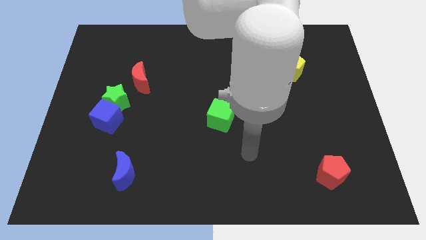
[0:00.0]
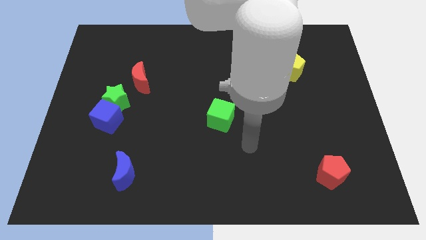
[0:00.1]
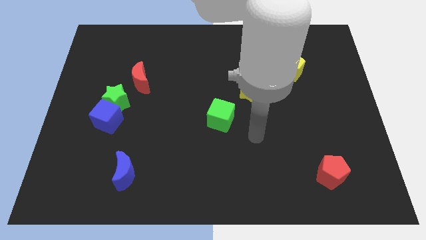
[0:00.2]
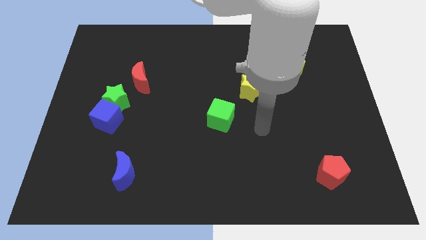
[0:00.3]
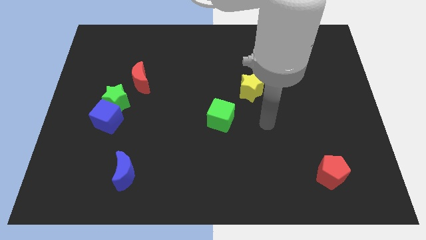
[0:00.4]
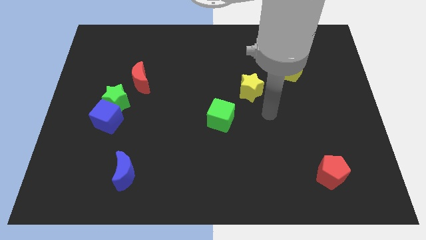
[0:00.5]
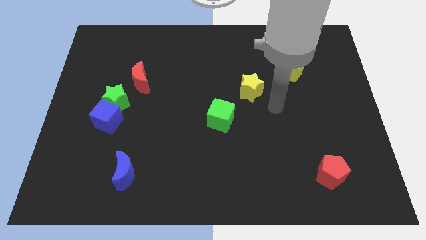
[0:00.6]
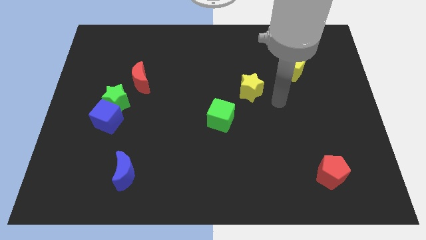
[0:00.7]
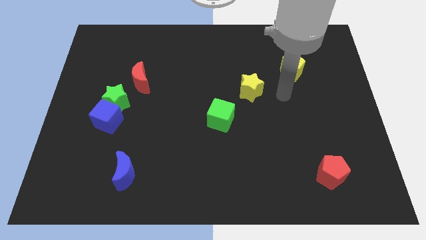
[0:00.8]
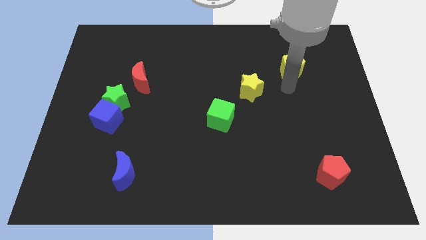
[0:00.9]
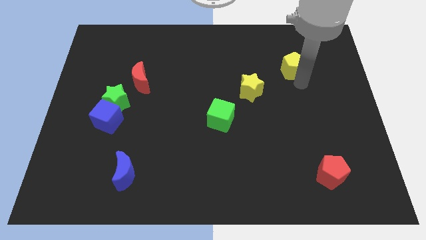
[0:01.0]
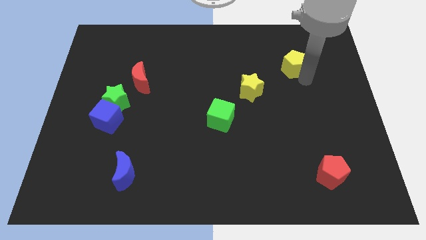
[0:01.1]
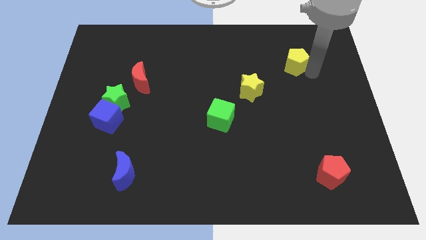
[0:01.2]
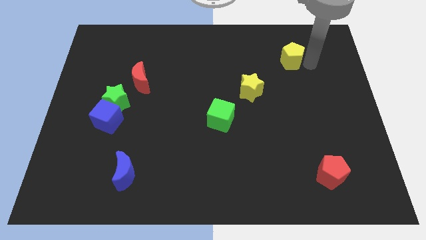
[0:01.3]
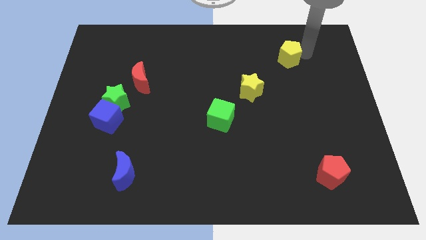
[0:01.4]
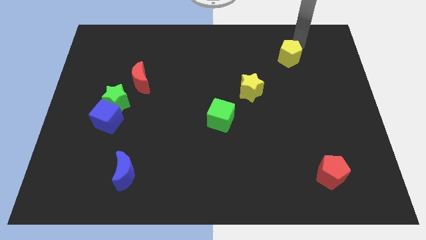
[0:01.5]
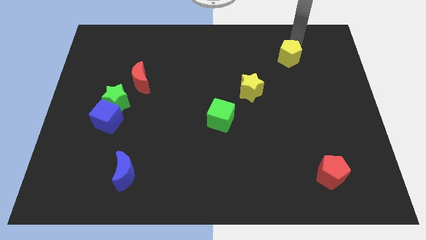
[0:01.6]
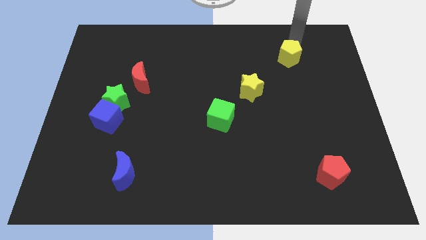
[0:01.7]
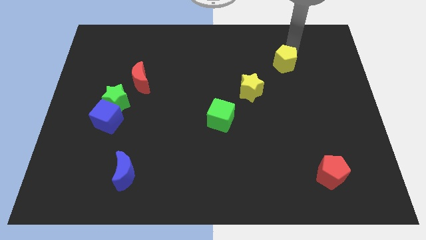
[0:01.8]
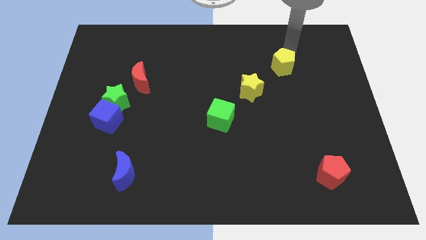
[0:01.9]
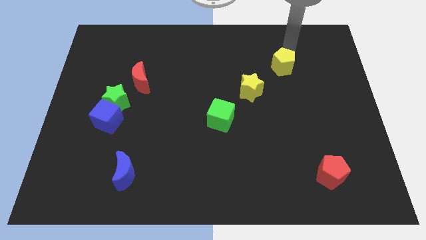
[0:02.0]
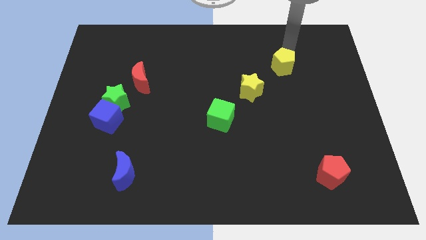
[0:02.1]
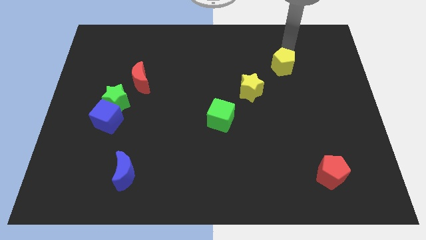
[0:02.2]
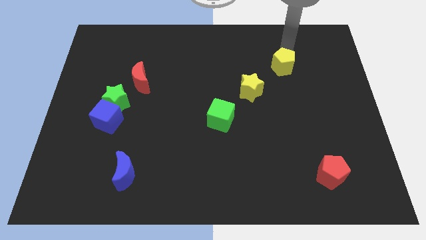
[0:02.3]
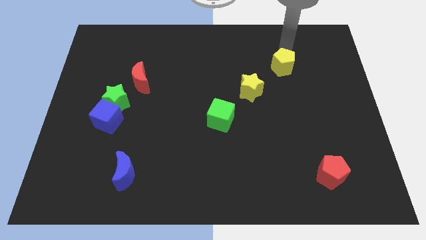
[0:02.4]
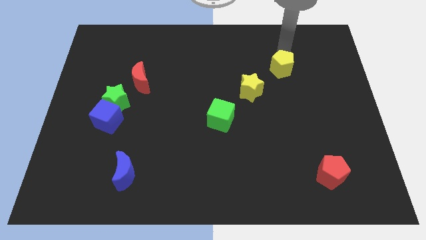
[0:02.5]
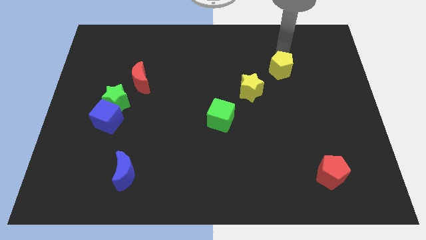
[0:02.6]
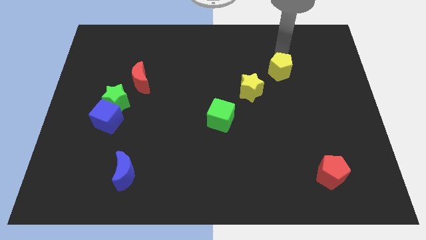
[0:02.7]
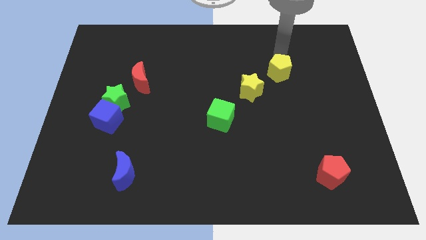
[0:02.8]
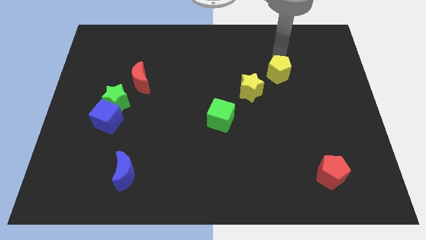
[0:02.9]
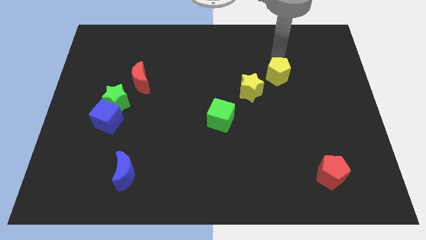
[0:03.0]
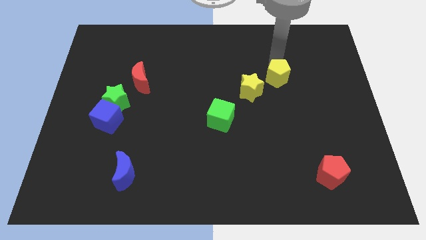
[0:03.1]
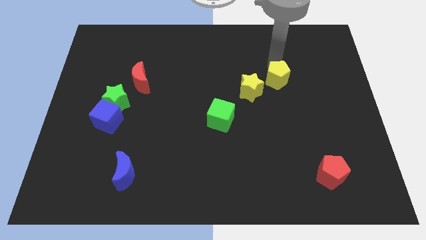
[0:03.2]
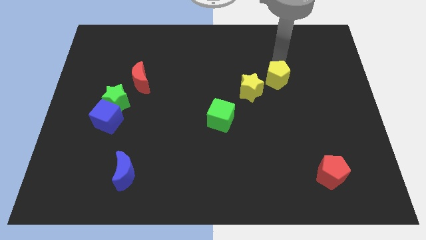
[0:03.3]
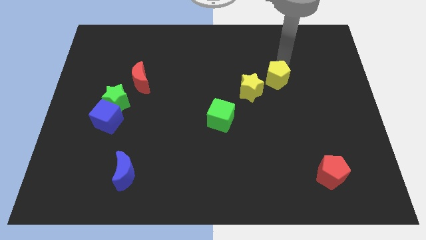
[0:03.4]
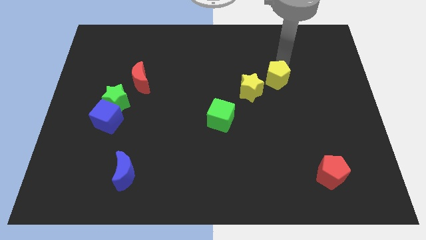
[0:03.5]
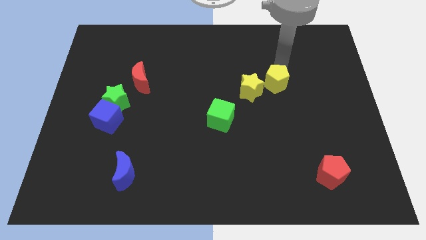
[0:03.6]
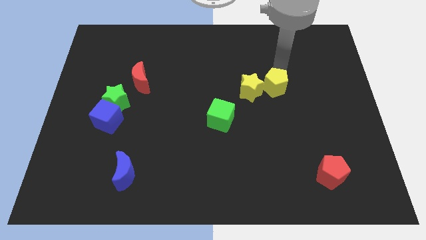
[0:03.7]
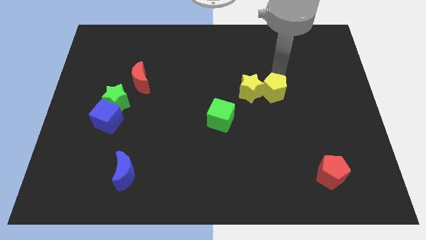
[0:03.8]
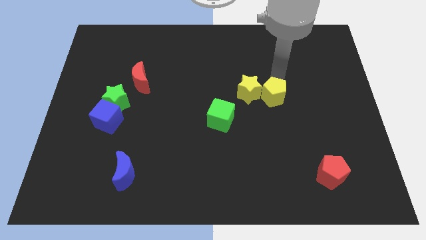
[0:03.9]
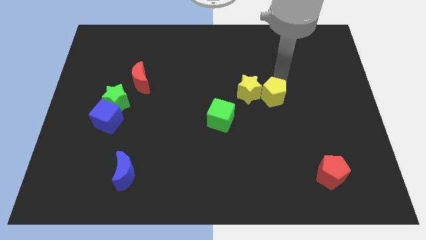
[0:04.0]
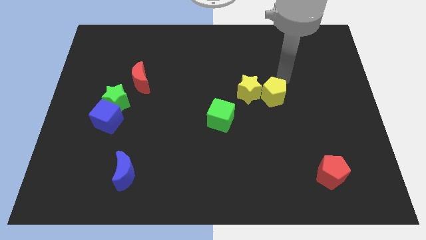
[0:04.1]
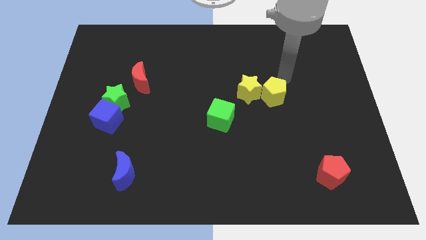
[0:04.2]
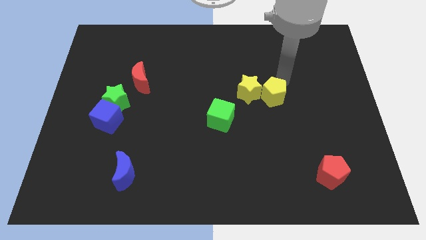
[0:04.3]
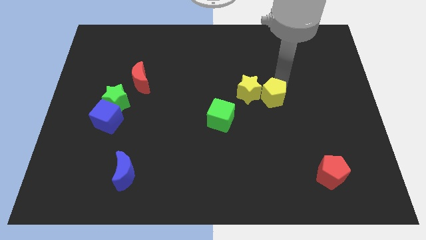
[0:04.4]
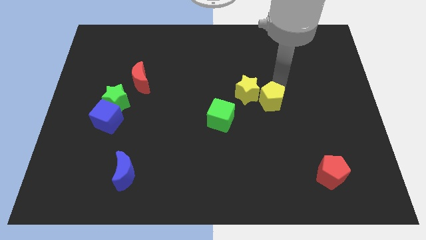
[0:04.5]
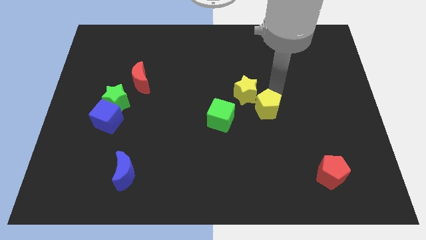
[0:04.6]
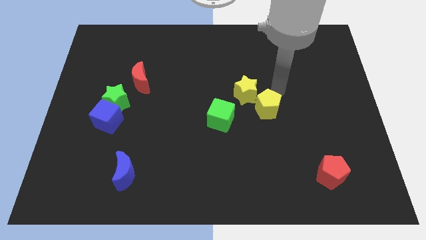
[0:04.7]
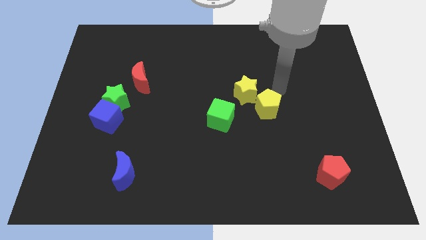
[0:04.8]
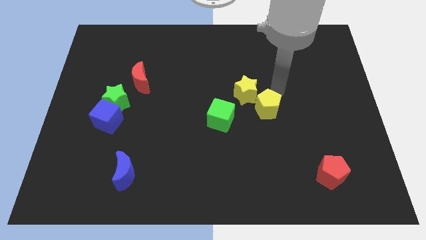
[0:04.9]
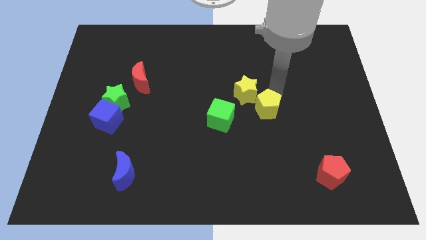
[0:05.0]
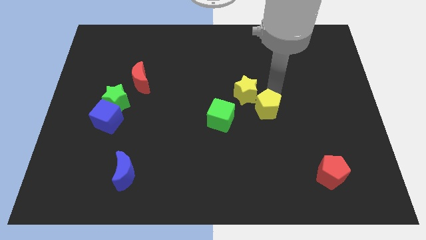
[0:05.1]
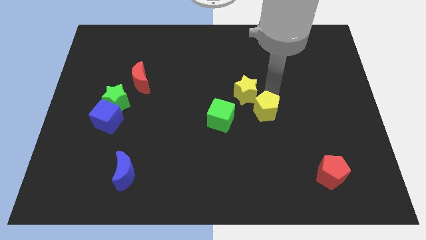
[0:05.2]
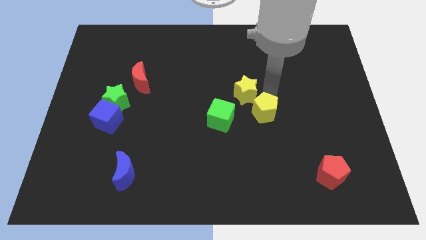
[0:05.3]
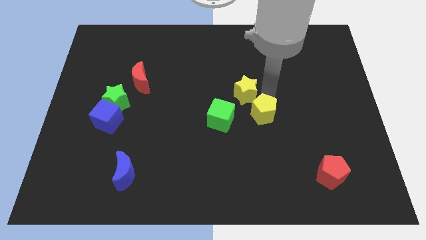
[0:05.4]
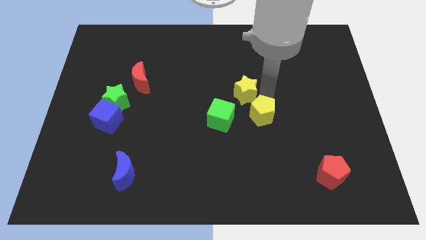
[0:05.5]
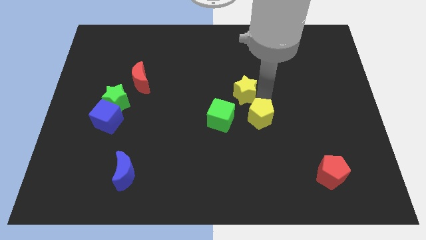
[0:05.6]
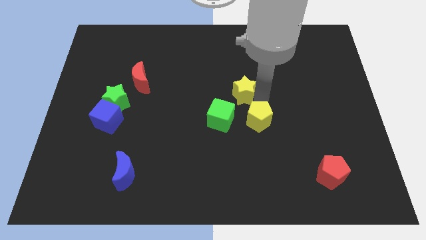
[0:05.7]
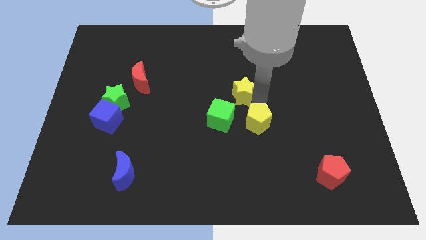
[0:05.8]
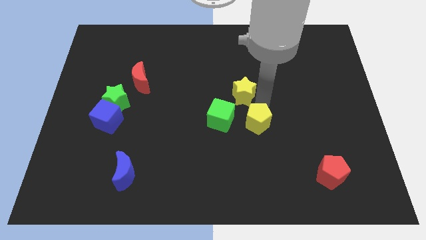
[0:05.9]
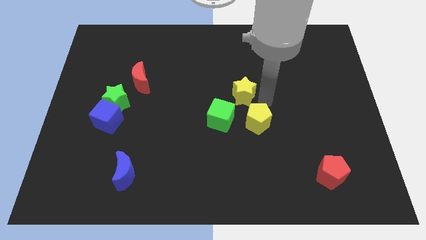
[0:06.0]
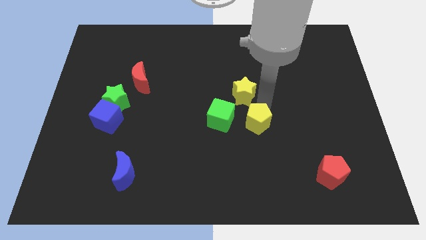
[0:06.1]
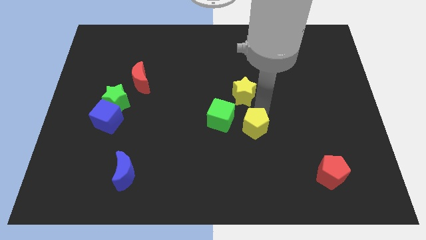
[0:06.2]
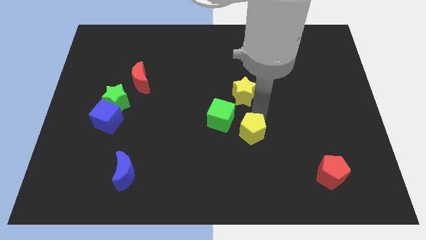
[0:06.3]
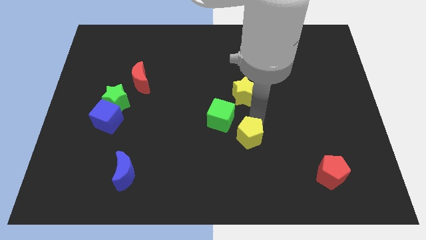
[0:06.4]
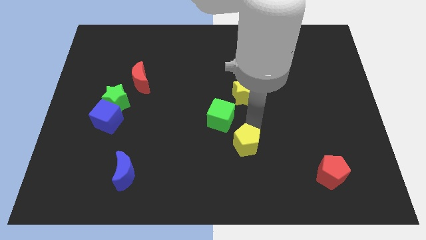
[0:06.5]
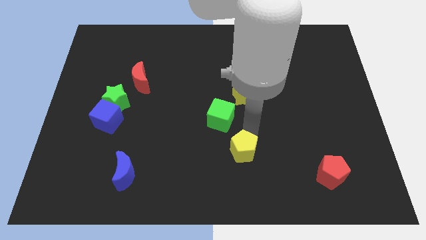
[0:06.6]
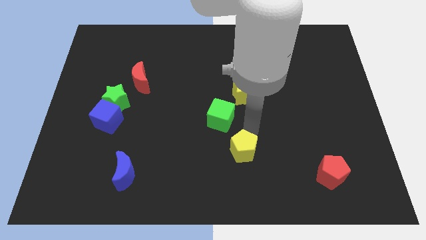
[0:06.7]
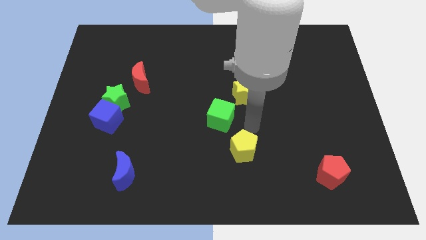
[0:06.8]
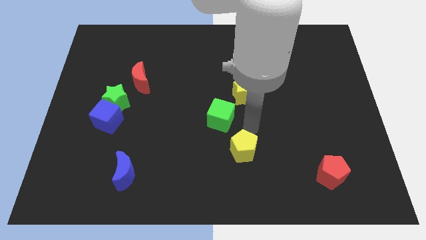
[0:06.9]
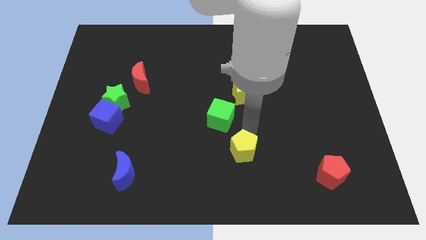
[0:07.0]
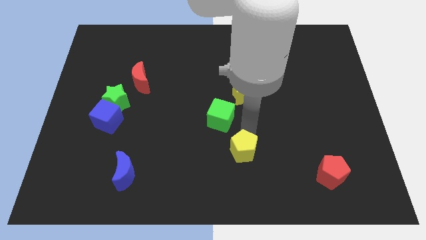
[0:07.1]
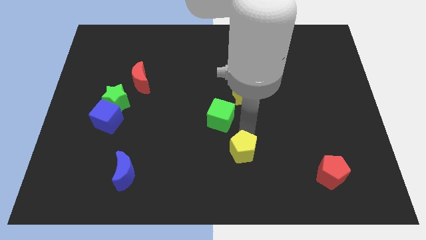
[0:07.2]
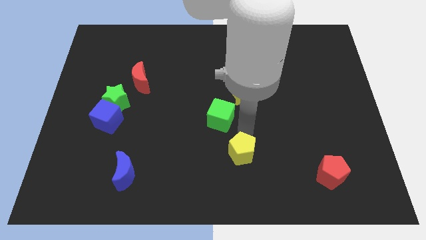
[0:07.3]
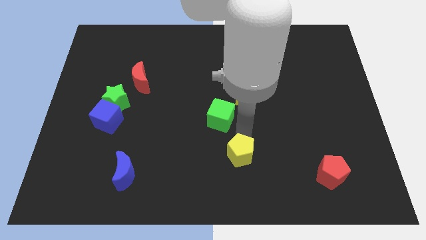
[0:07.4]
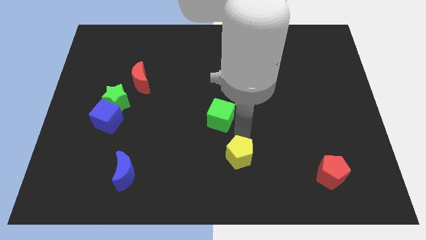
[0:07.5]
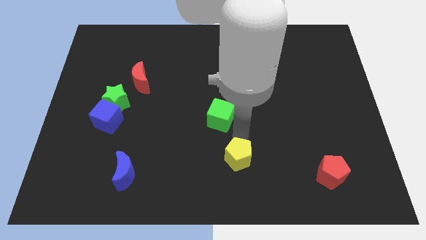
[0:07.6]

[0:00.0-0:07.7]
slide the yellow pentagon to the bottom
